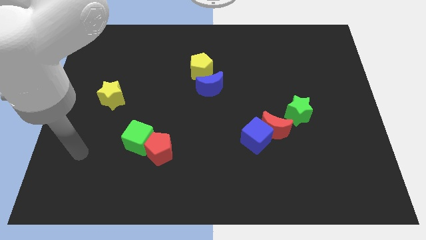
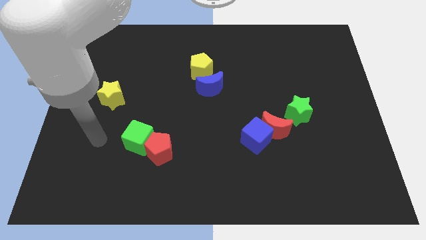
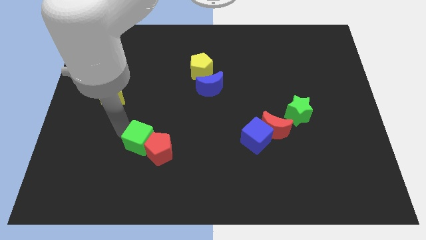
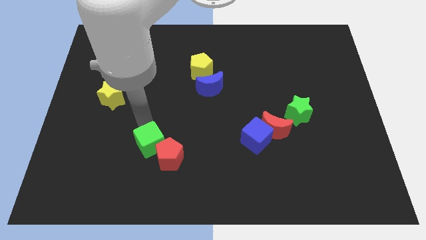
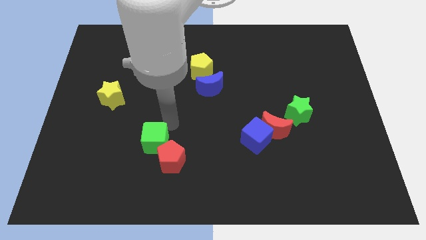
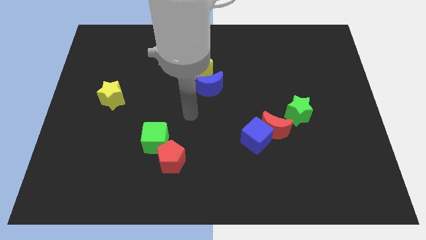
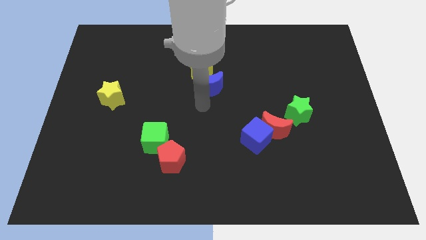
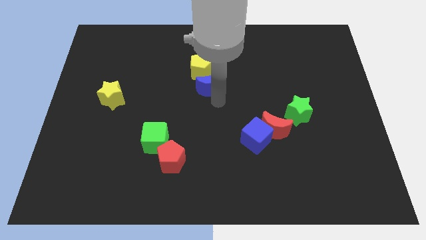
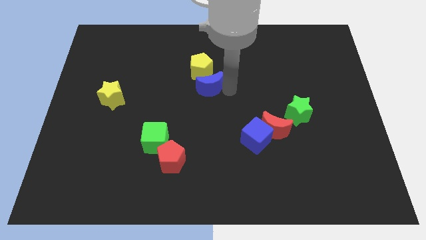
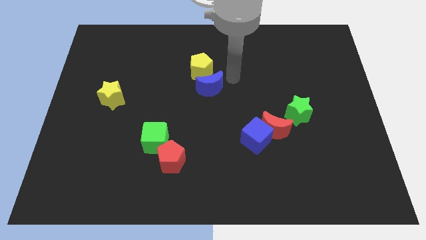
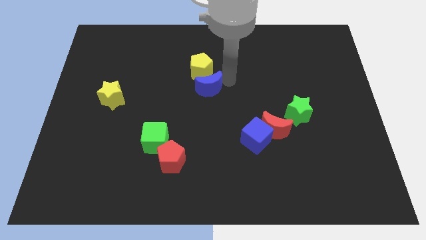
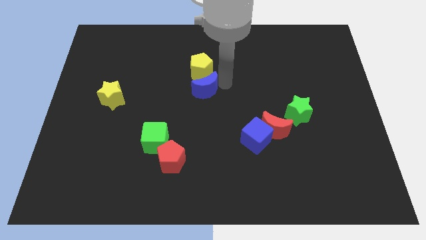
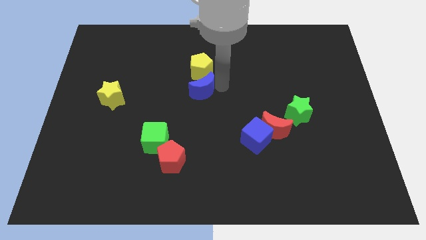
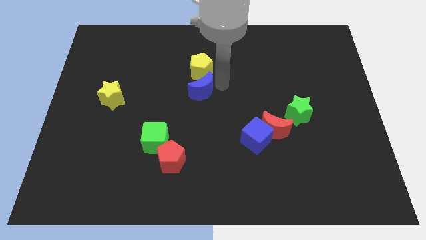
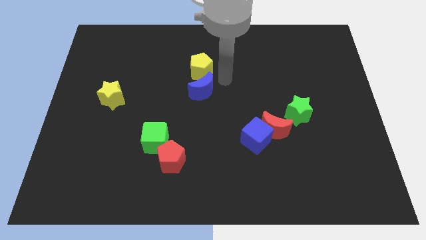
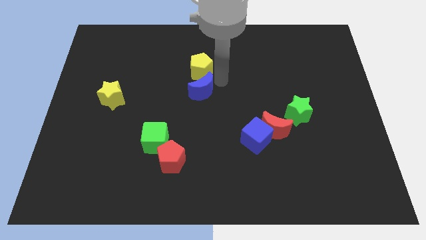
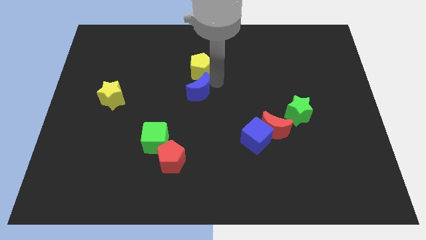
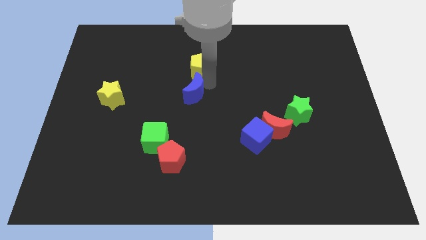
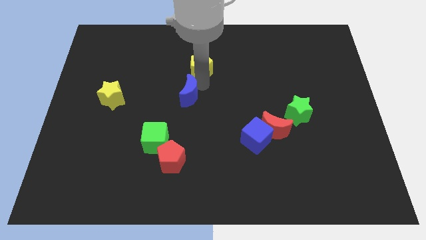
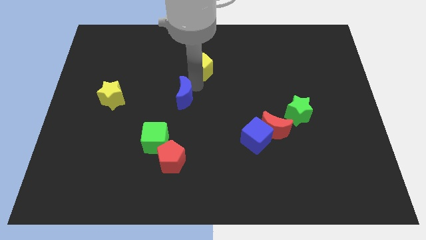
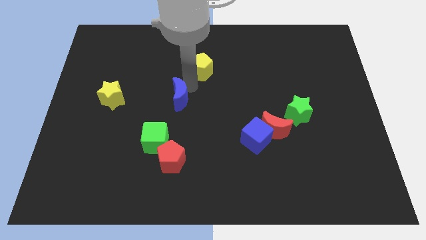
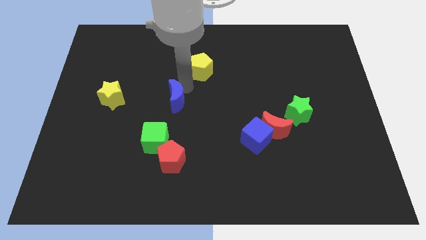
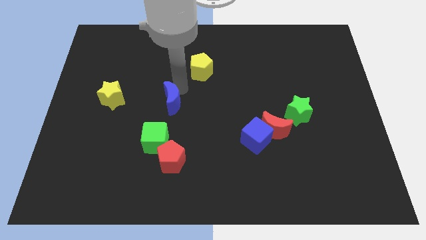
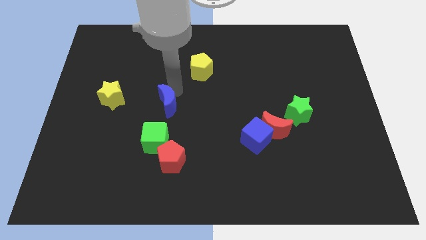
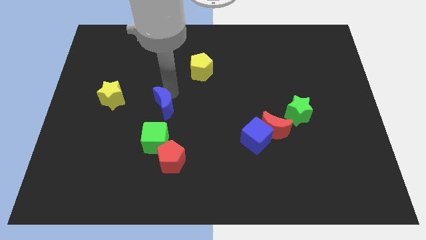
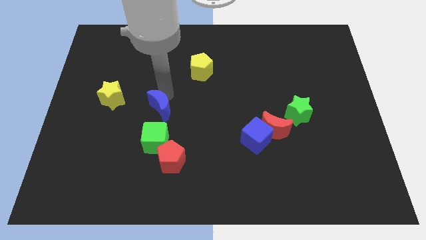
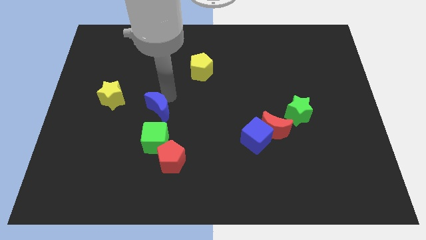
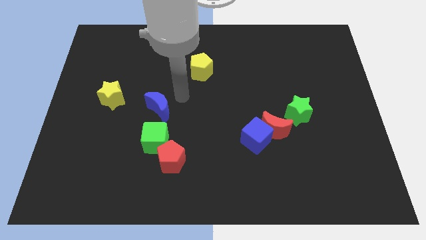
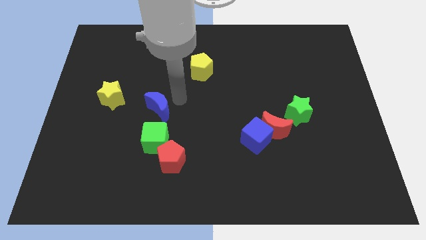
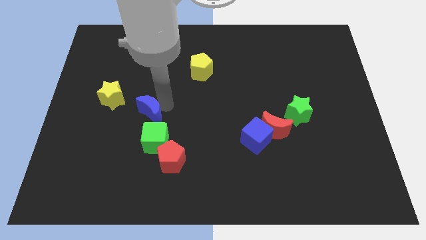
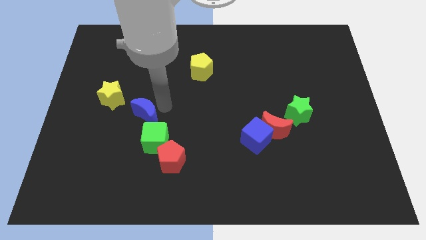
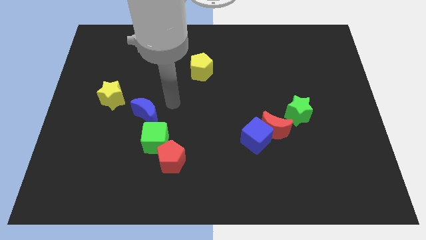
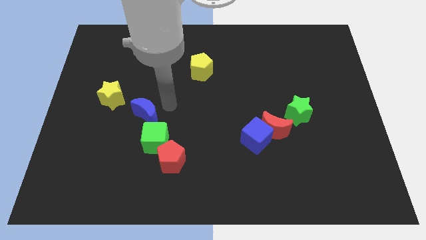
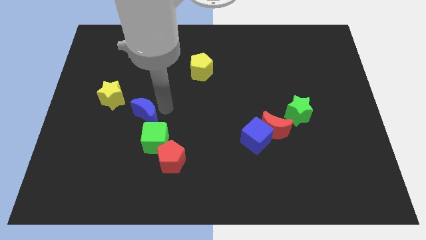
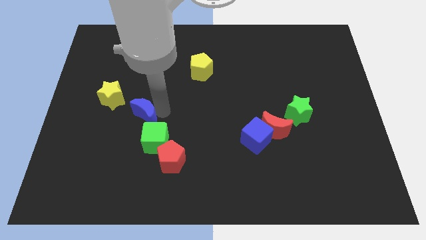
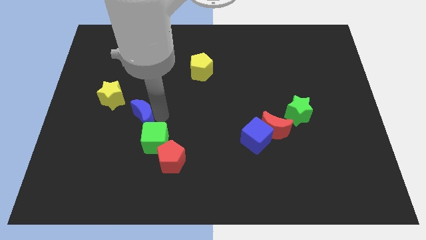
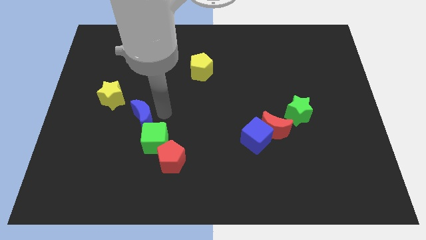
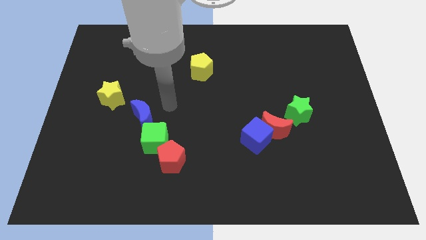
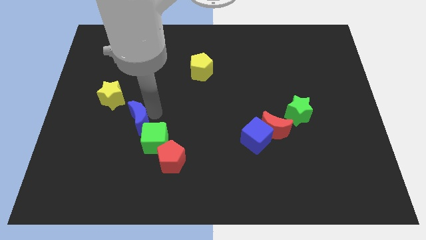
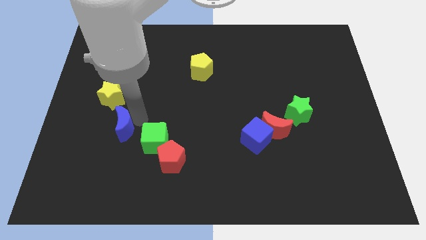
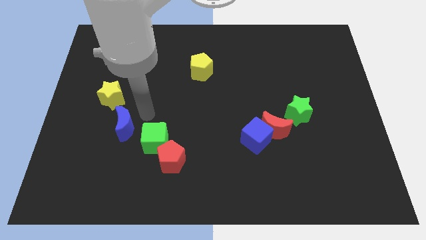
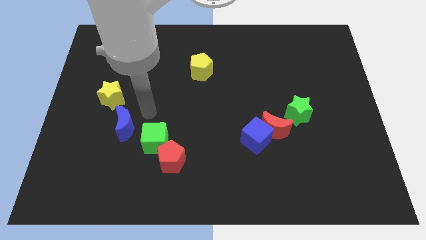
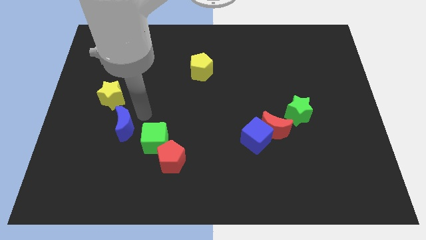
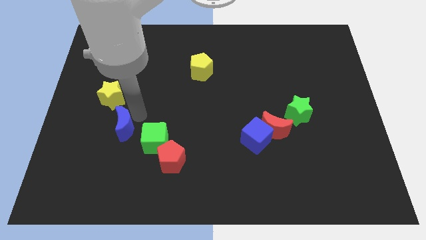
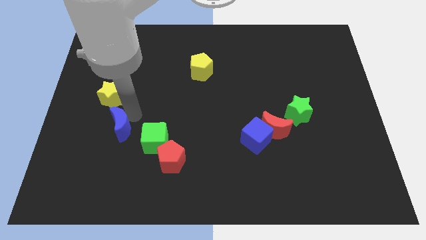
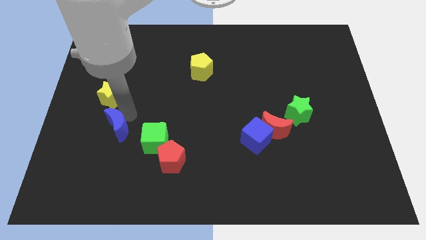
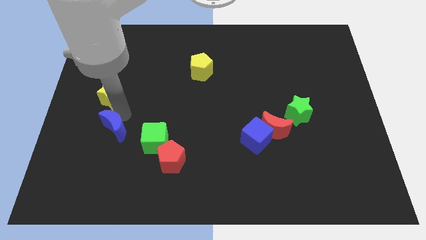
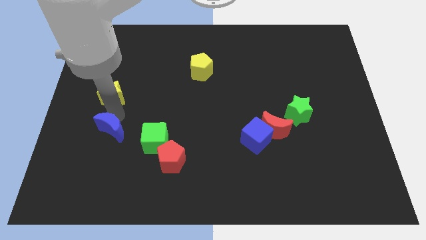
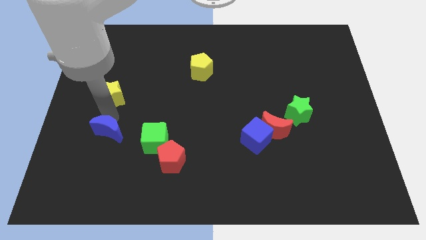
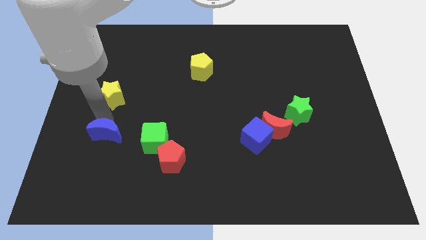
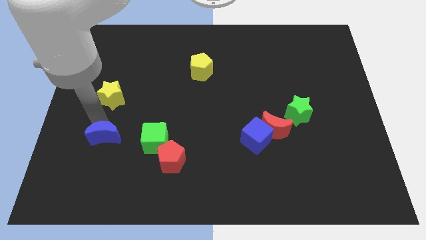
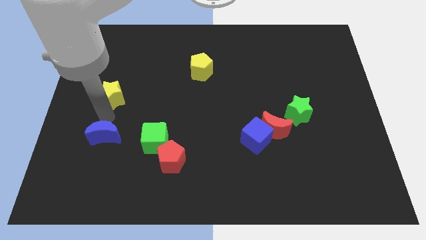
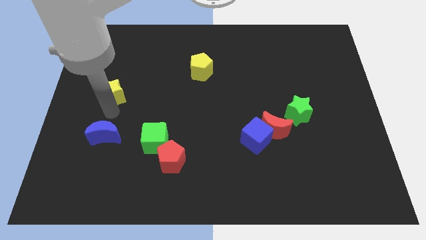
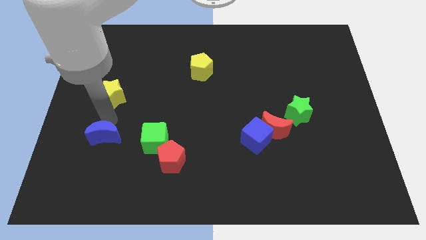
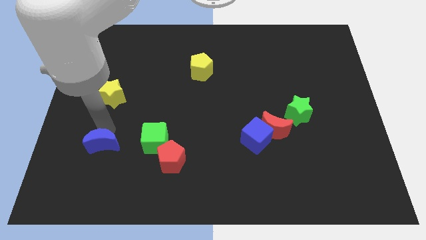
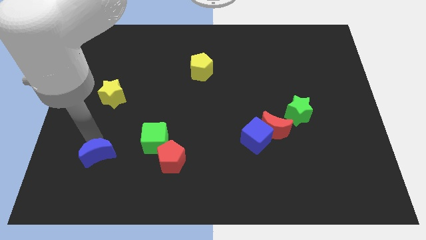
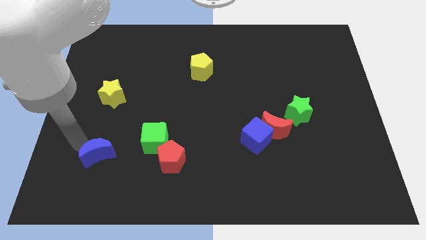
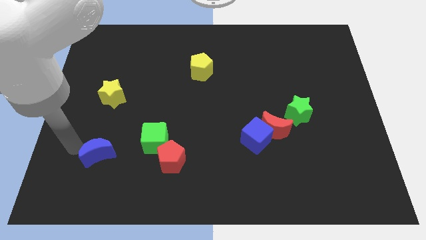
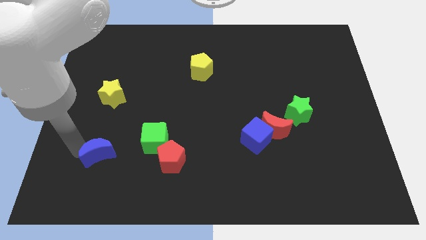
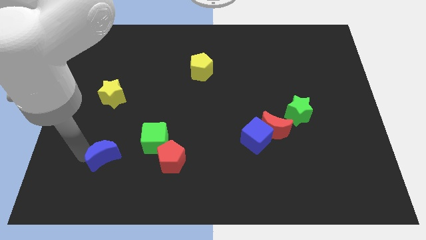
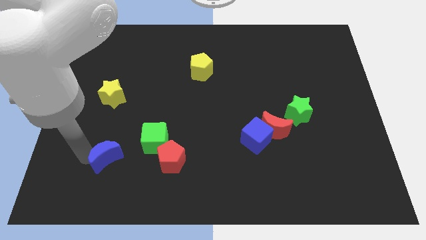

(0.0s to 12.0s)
push the blue moon diagonally down and to the left of the green cube

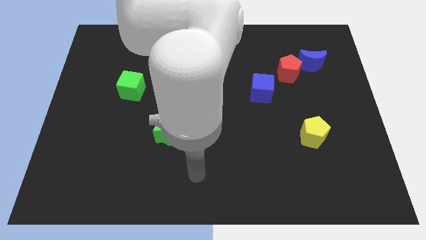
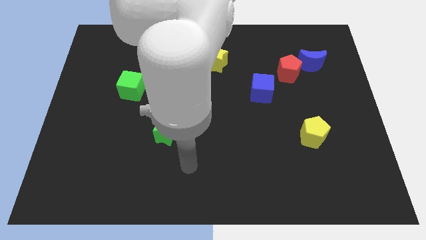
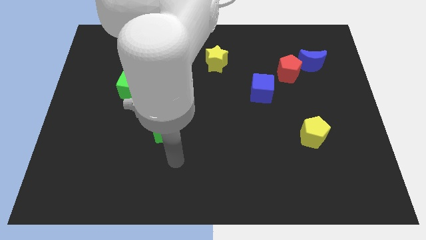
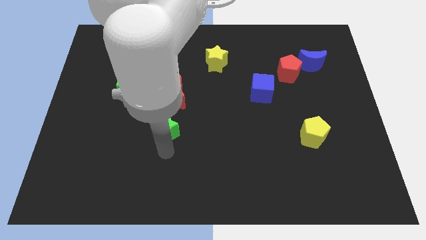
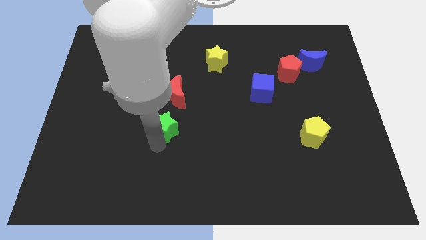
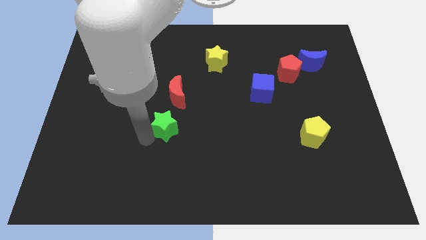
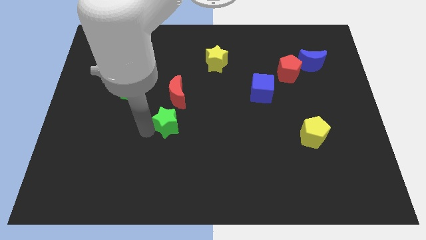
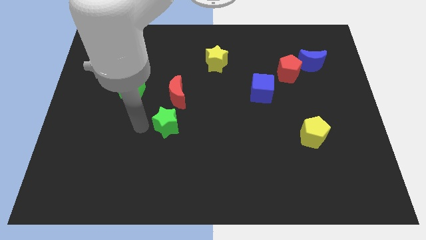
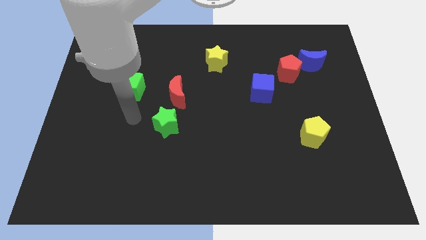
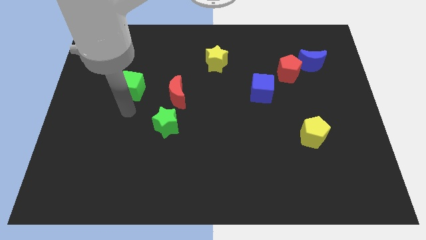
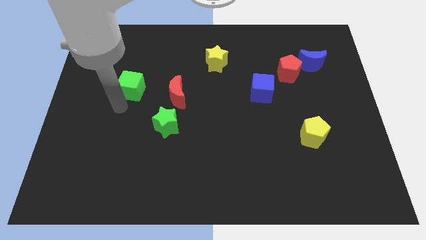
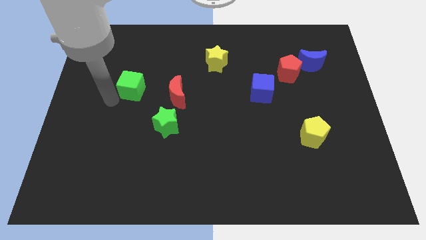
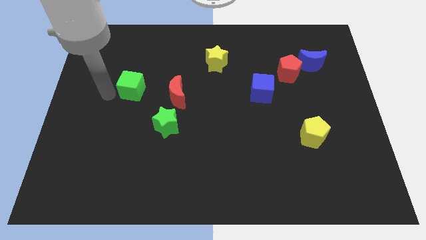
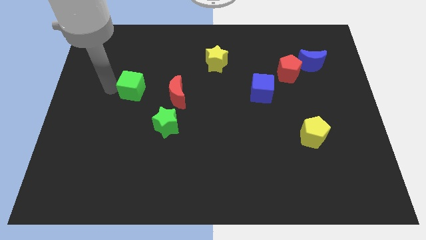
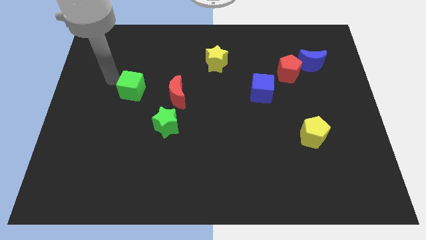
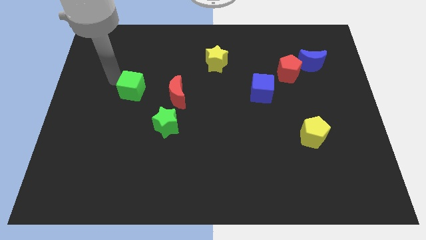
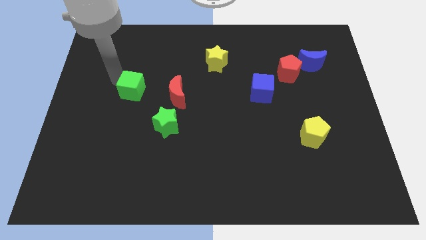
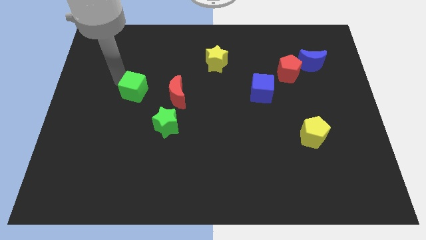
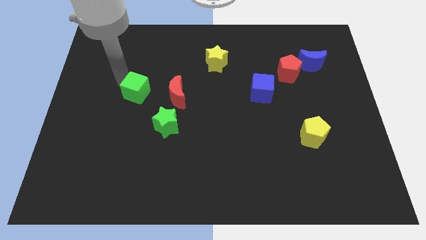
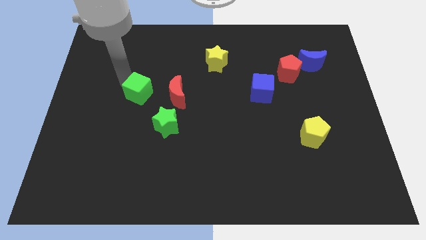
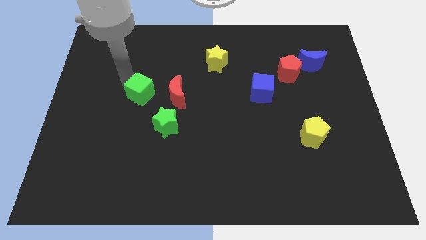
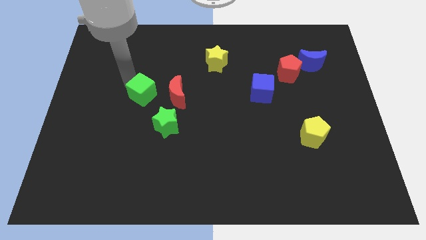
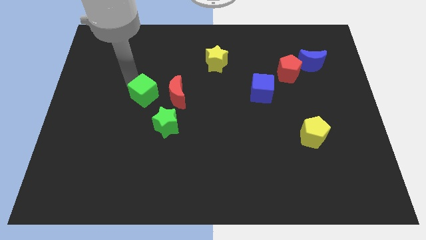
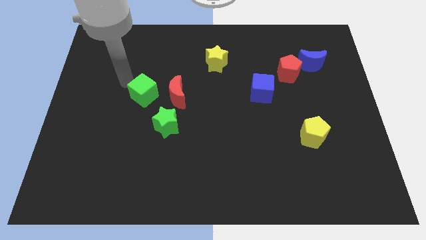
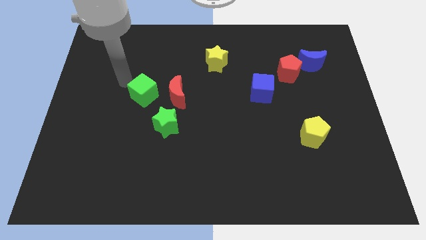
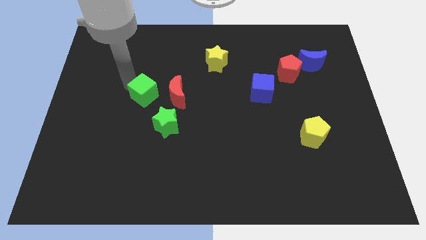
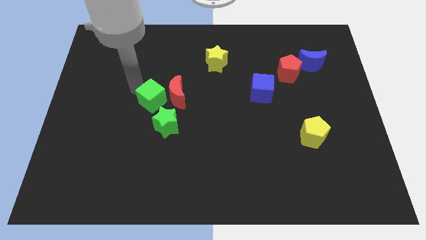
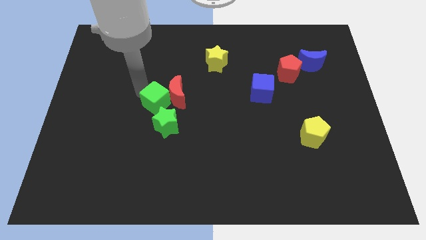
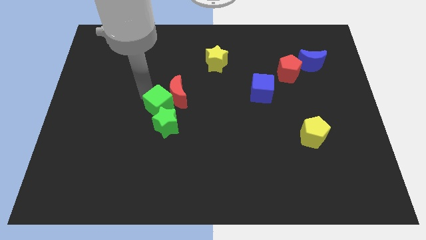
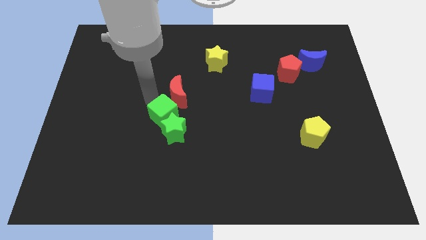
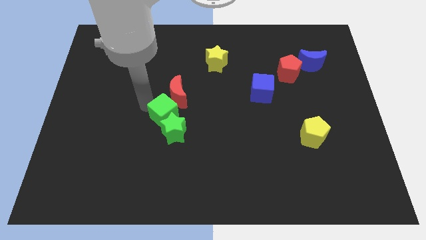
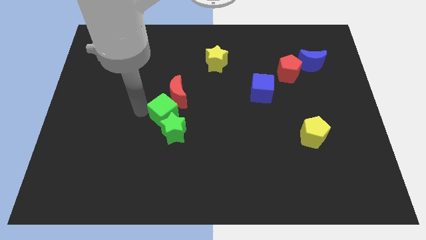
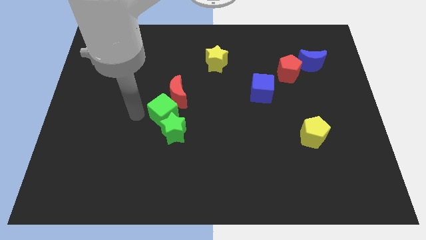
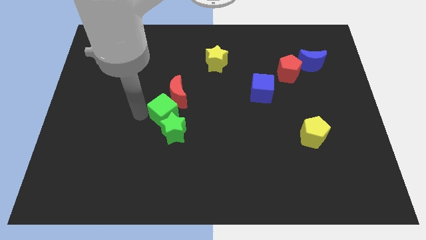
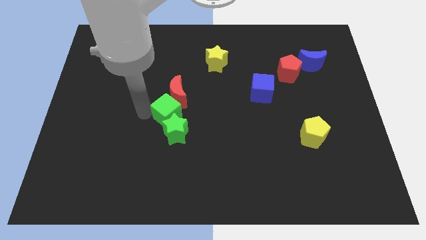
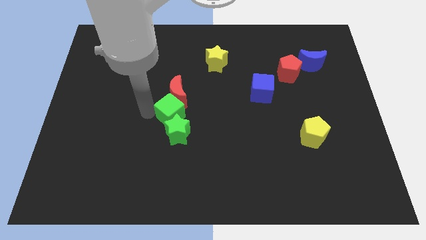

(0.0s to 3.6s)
put the green cube diagonally down and to the right of the red moon
